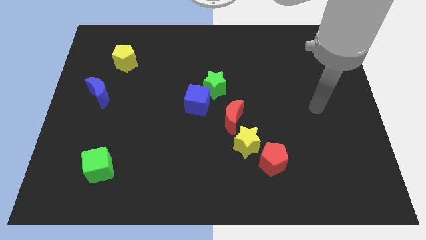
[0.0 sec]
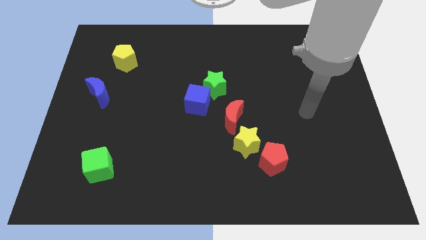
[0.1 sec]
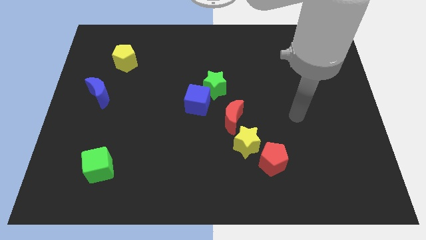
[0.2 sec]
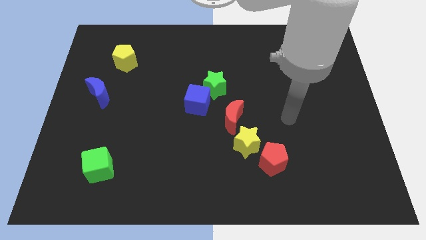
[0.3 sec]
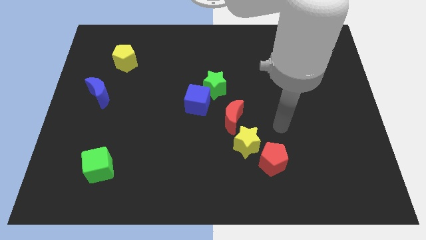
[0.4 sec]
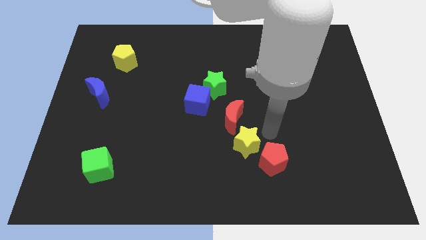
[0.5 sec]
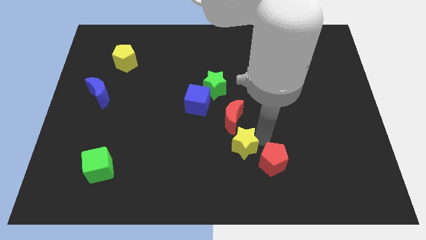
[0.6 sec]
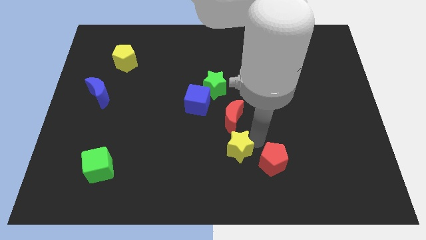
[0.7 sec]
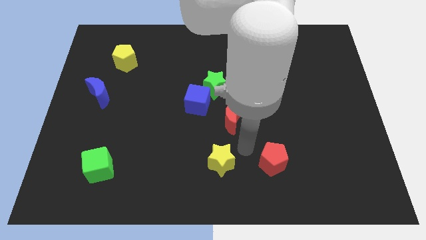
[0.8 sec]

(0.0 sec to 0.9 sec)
move the red pentagon away from the yellow star

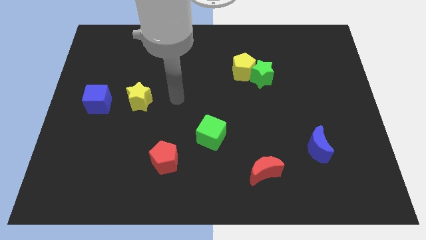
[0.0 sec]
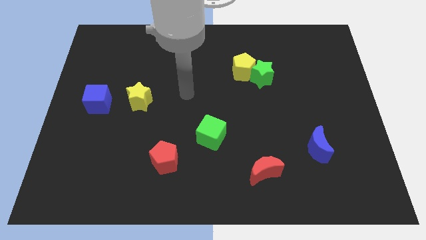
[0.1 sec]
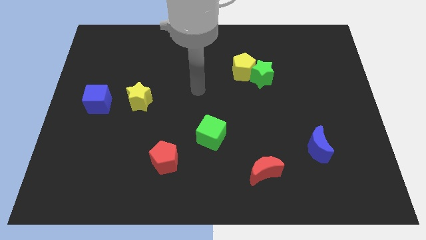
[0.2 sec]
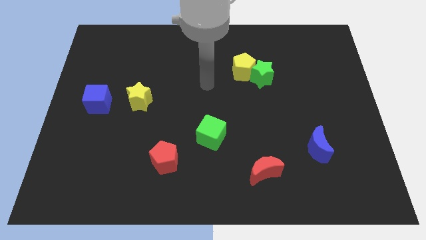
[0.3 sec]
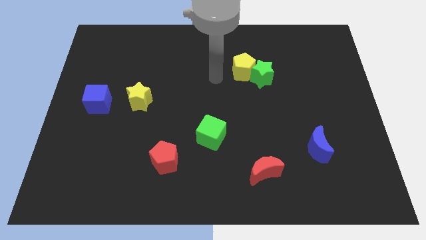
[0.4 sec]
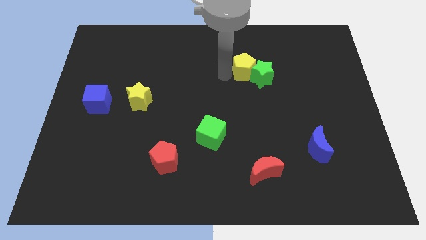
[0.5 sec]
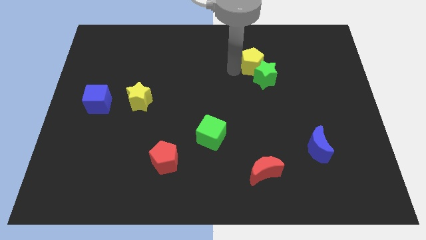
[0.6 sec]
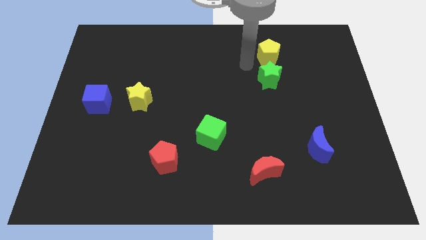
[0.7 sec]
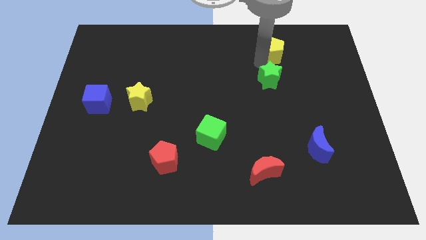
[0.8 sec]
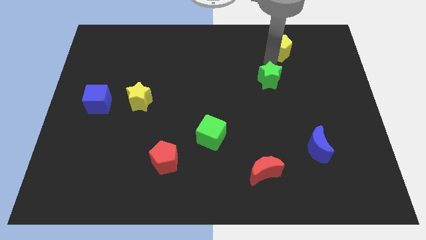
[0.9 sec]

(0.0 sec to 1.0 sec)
move the green star away from the yellow pentagon

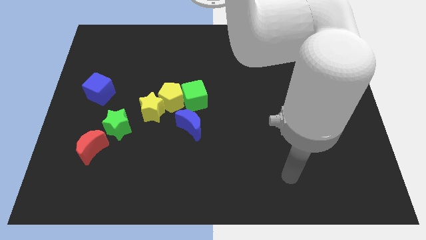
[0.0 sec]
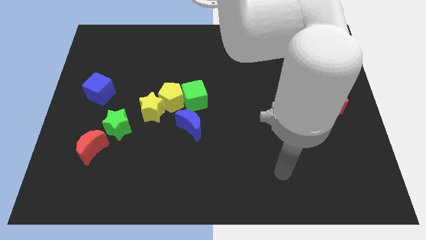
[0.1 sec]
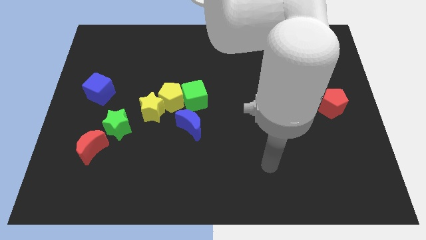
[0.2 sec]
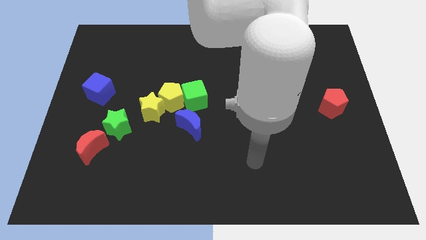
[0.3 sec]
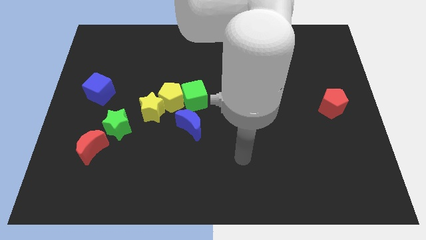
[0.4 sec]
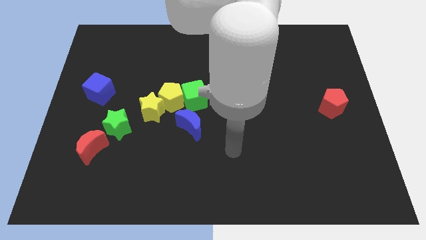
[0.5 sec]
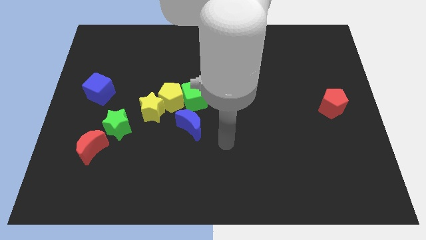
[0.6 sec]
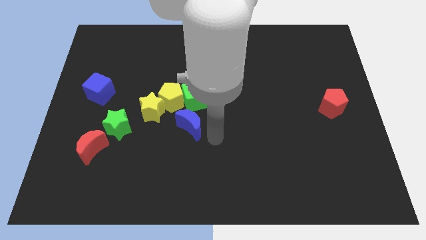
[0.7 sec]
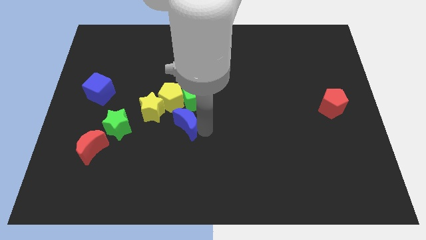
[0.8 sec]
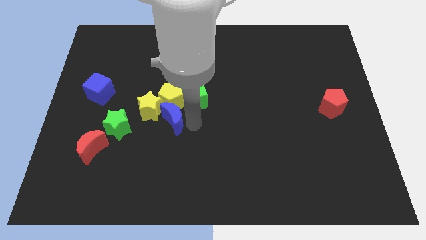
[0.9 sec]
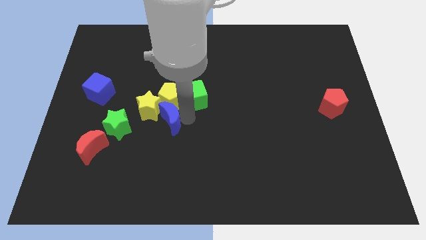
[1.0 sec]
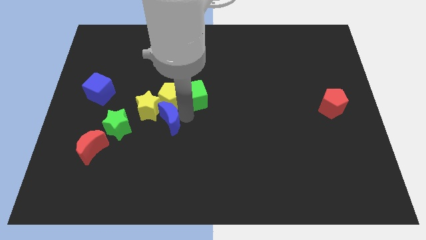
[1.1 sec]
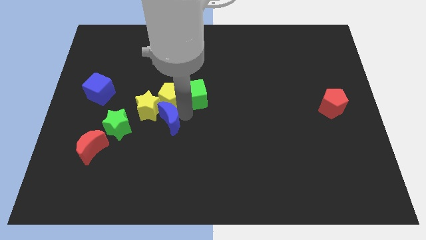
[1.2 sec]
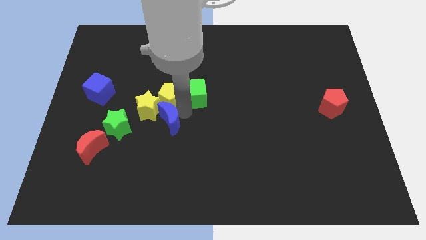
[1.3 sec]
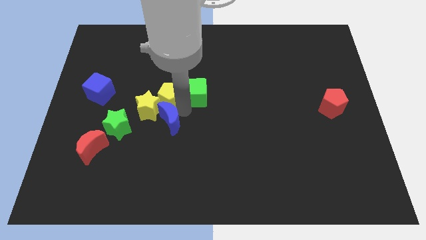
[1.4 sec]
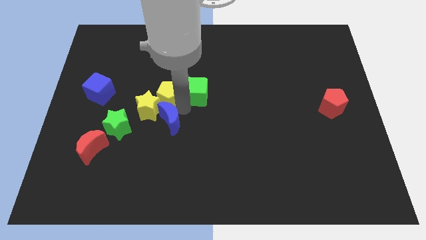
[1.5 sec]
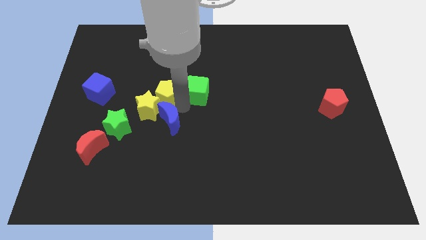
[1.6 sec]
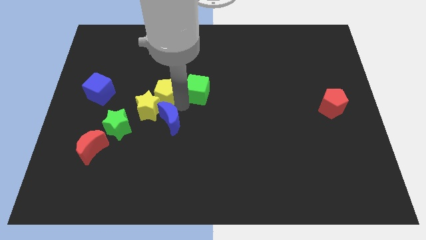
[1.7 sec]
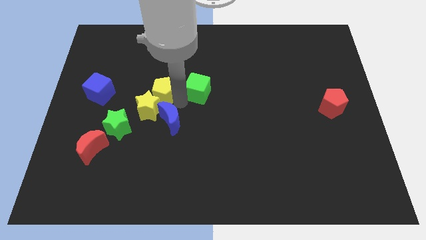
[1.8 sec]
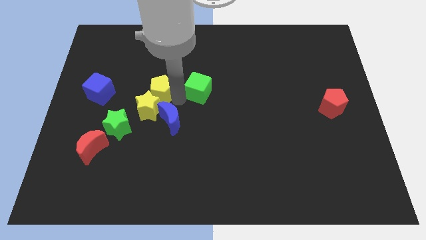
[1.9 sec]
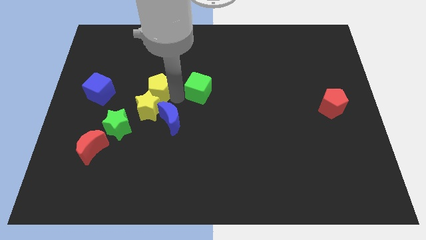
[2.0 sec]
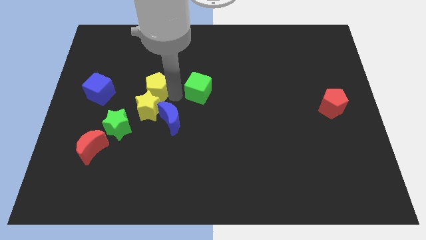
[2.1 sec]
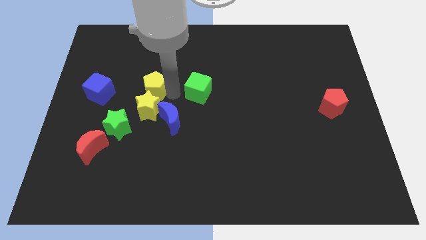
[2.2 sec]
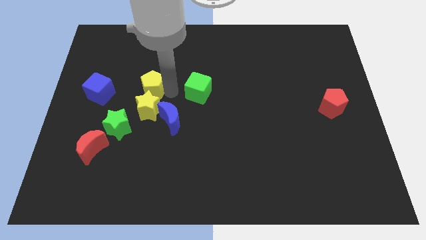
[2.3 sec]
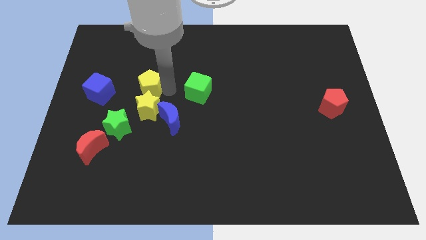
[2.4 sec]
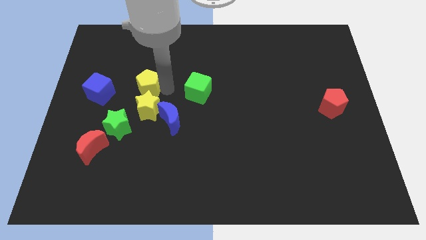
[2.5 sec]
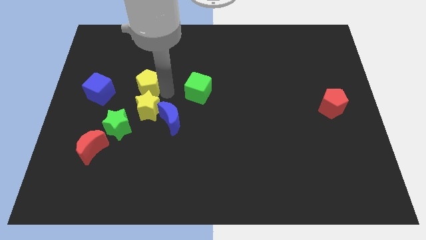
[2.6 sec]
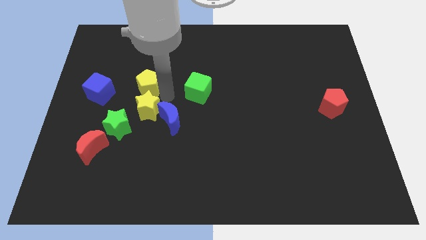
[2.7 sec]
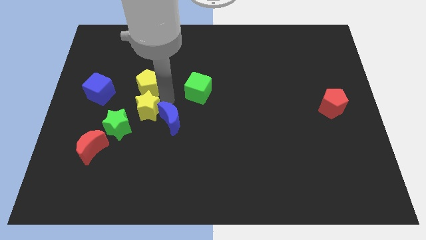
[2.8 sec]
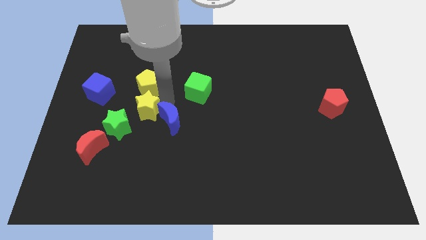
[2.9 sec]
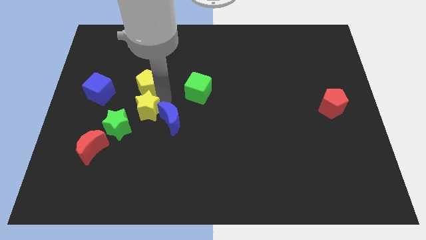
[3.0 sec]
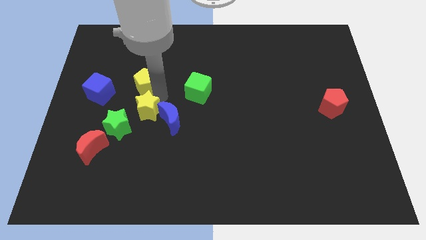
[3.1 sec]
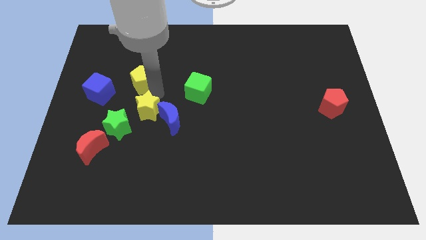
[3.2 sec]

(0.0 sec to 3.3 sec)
separate the yellow pentagon from the yellow star, green cube, and blue moon

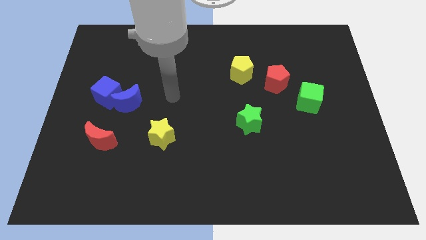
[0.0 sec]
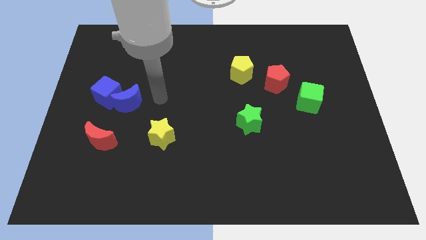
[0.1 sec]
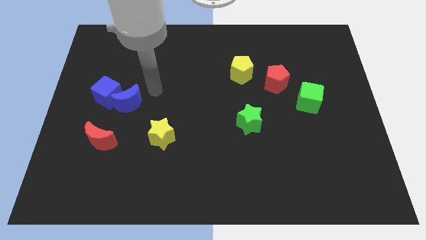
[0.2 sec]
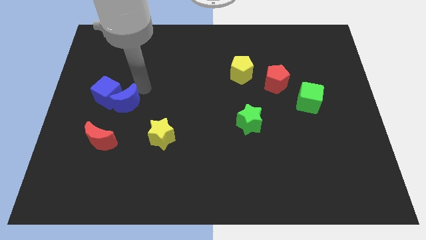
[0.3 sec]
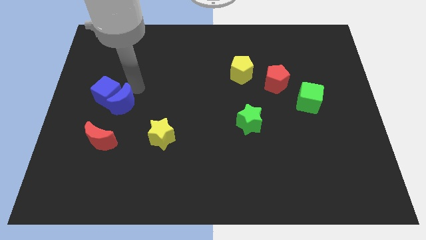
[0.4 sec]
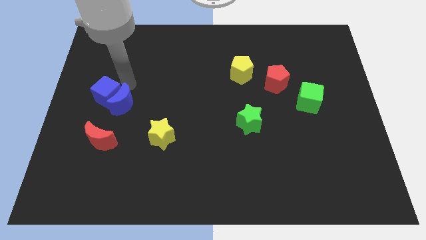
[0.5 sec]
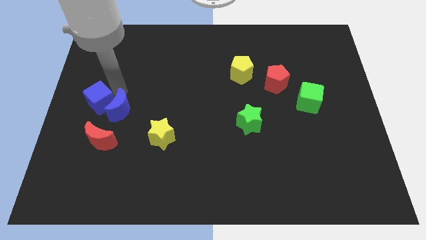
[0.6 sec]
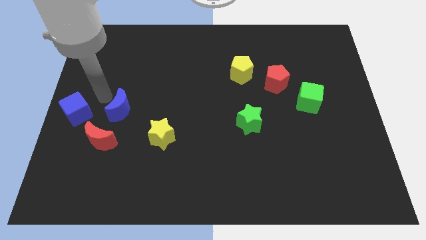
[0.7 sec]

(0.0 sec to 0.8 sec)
separate the blue moon from the blue cube

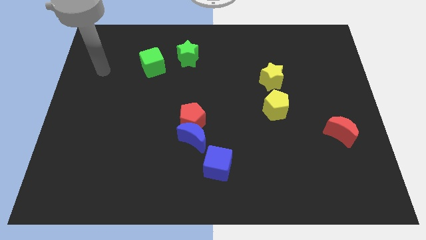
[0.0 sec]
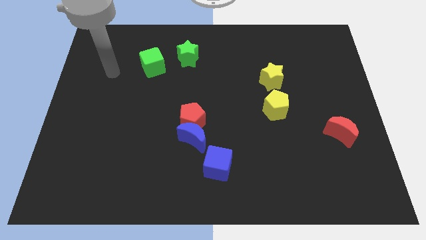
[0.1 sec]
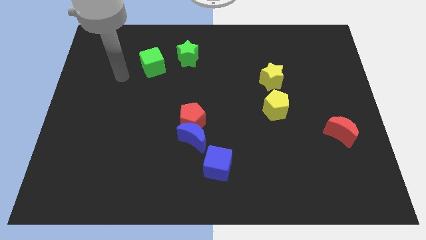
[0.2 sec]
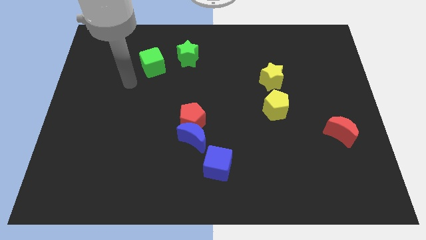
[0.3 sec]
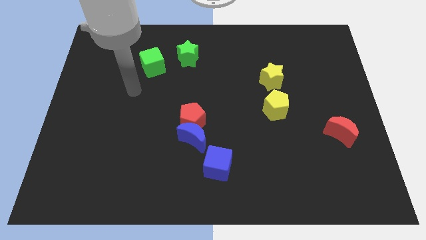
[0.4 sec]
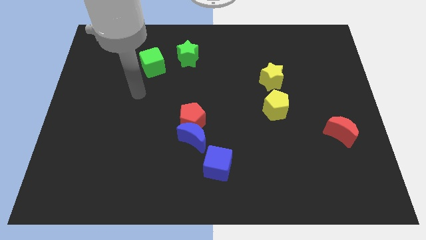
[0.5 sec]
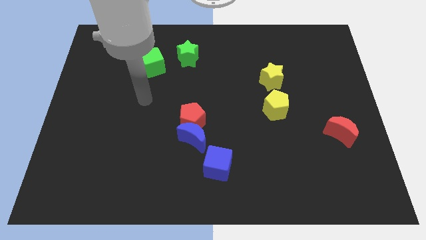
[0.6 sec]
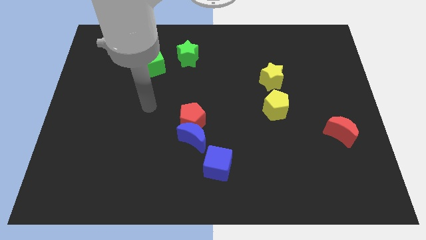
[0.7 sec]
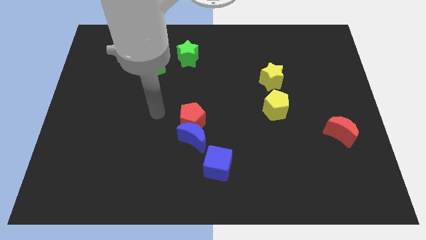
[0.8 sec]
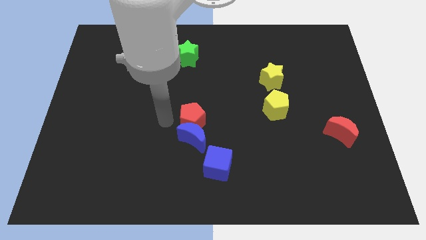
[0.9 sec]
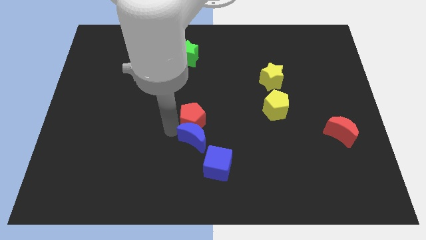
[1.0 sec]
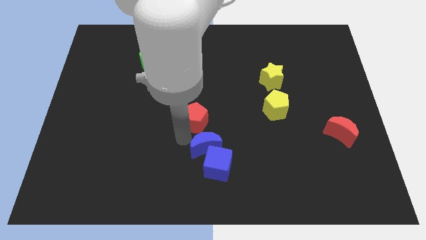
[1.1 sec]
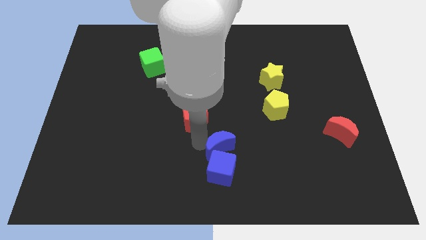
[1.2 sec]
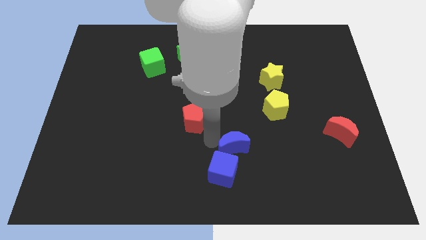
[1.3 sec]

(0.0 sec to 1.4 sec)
pull the red pentagon apart from the blue moon

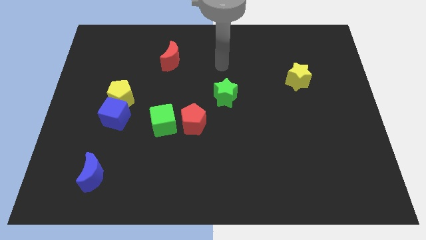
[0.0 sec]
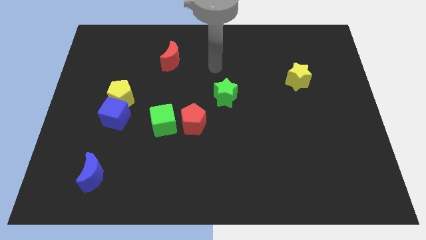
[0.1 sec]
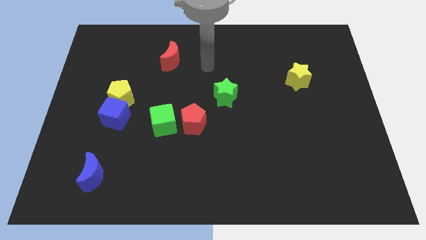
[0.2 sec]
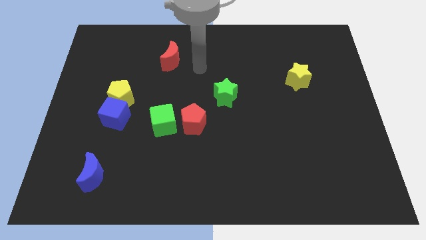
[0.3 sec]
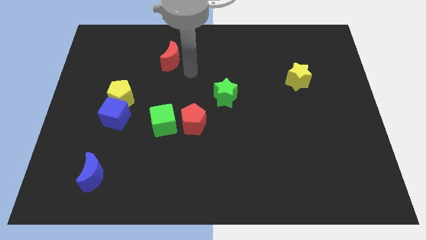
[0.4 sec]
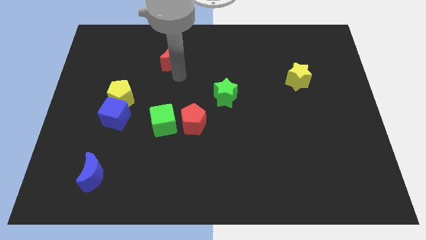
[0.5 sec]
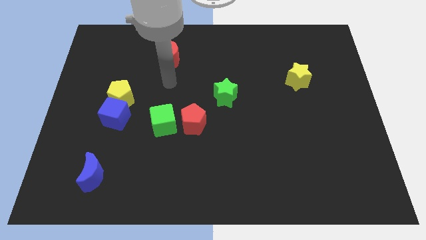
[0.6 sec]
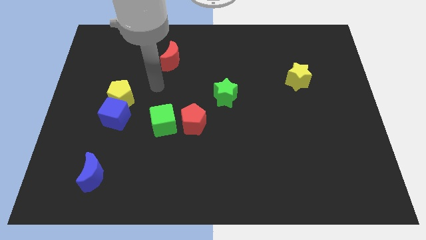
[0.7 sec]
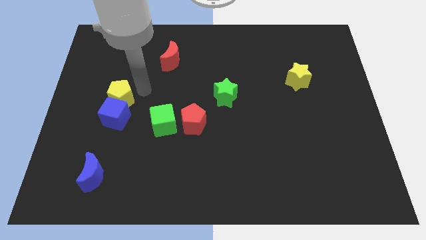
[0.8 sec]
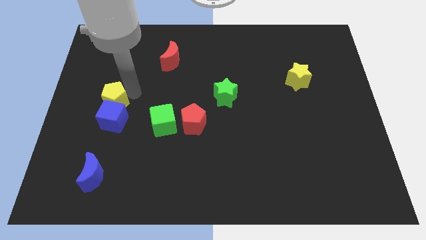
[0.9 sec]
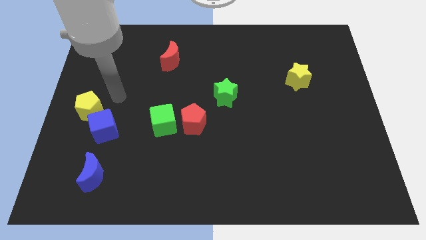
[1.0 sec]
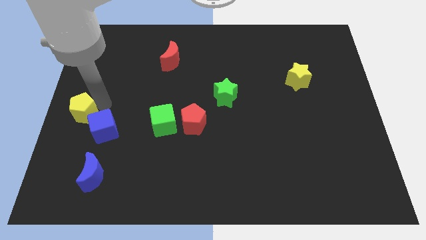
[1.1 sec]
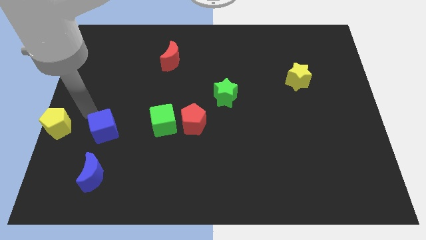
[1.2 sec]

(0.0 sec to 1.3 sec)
separate the blue cube from the yellow pentagon

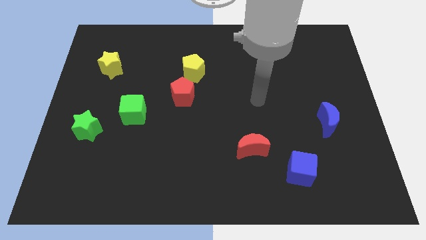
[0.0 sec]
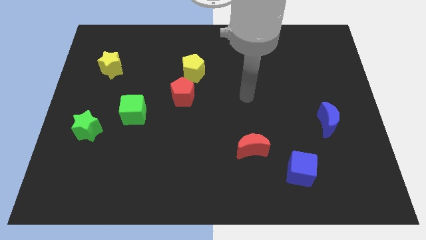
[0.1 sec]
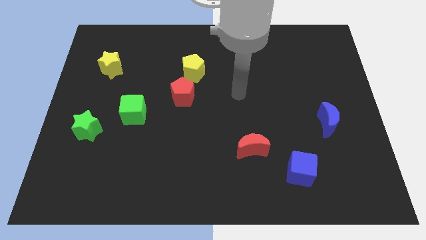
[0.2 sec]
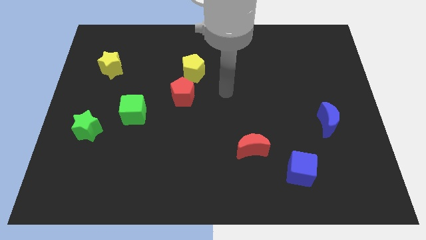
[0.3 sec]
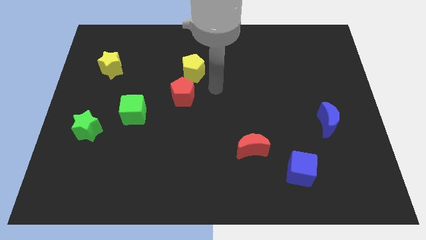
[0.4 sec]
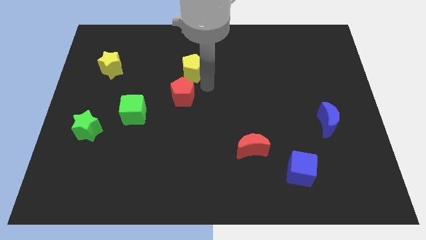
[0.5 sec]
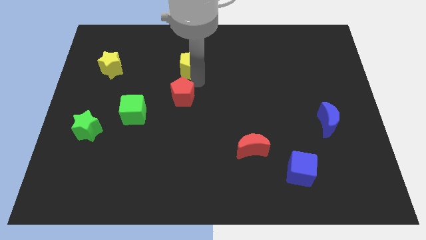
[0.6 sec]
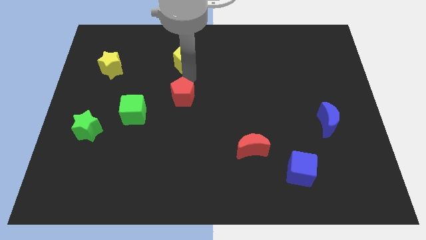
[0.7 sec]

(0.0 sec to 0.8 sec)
separate the red pentagon from the yellow pentagon
